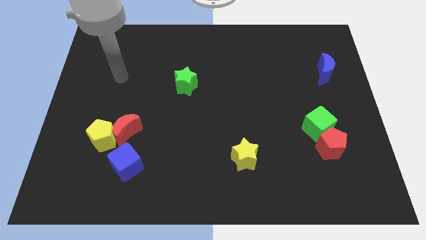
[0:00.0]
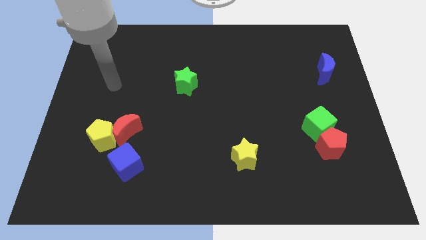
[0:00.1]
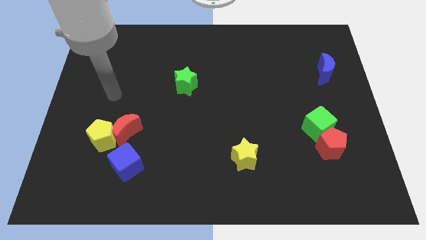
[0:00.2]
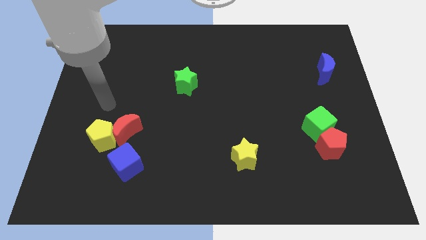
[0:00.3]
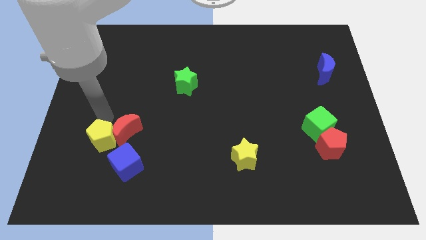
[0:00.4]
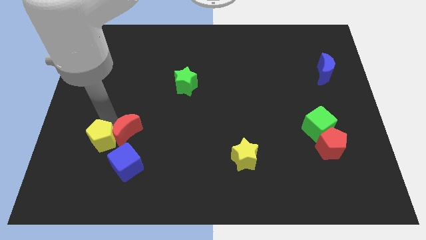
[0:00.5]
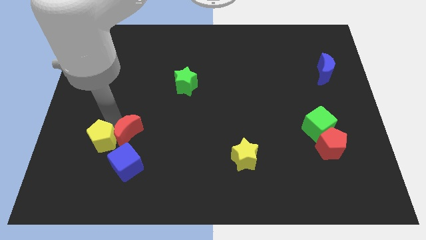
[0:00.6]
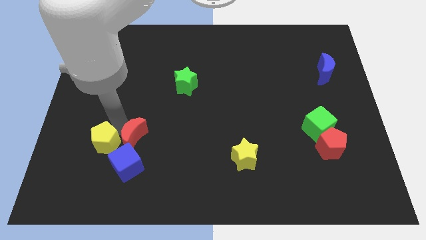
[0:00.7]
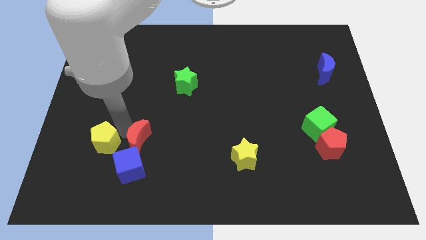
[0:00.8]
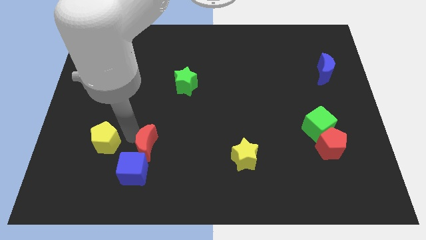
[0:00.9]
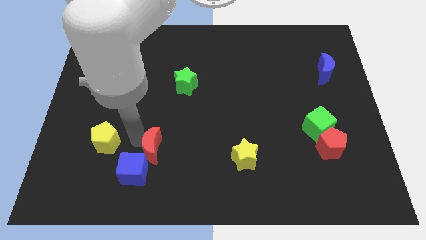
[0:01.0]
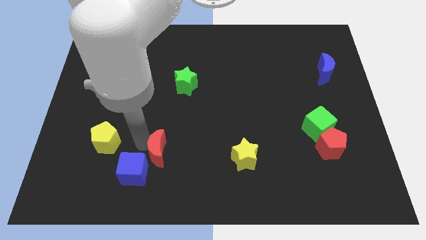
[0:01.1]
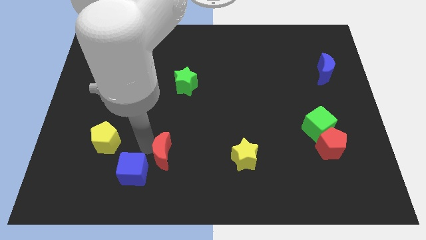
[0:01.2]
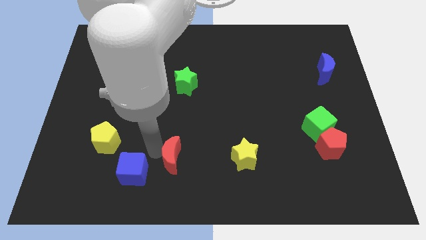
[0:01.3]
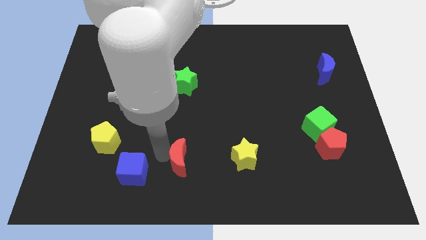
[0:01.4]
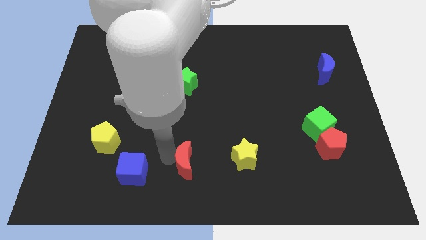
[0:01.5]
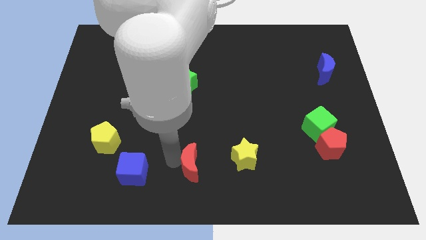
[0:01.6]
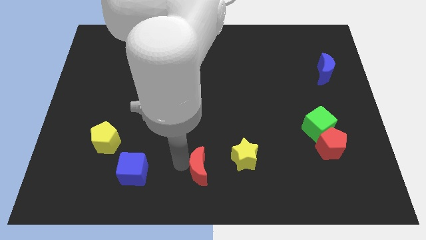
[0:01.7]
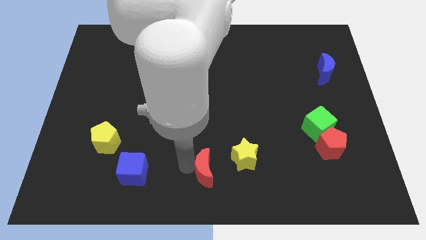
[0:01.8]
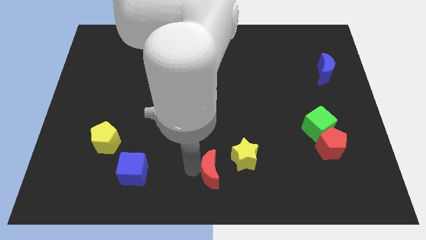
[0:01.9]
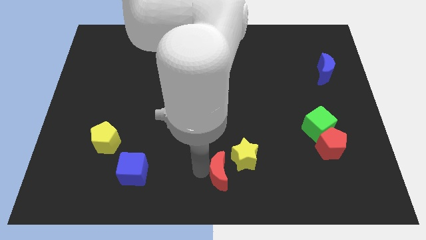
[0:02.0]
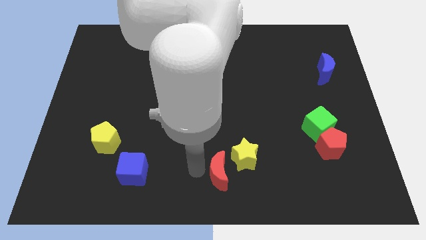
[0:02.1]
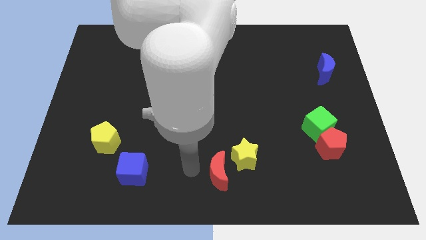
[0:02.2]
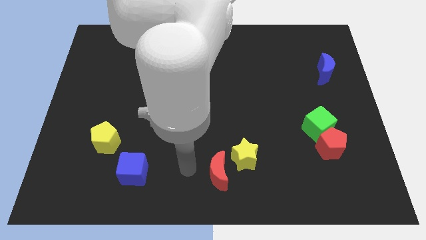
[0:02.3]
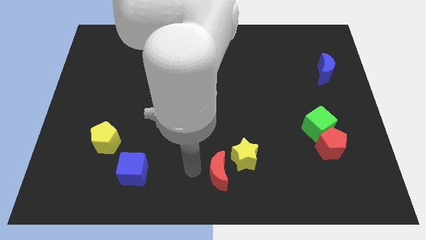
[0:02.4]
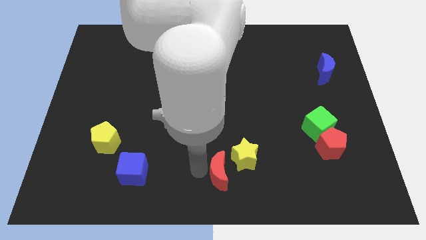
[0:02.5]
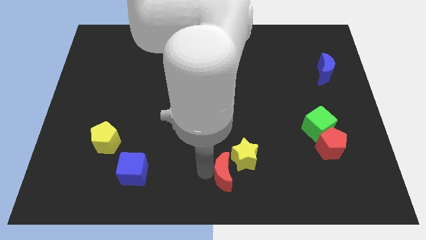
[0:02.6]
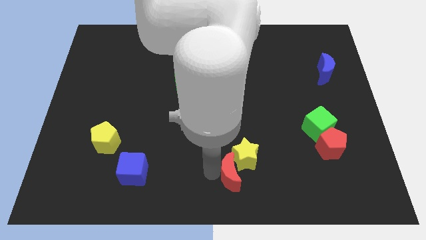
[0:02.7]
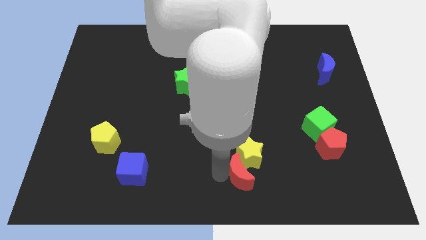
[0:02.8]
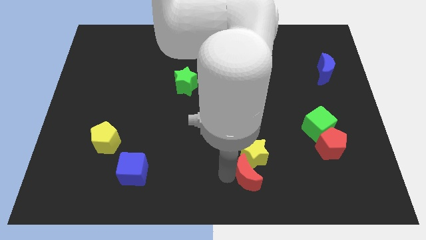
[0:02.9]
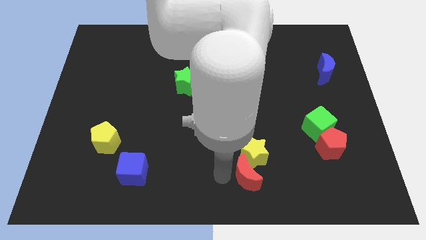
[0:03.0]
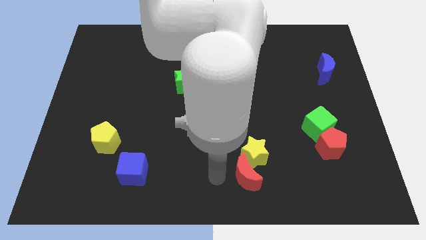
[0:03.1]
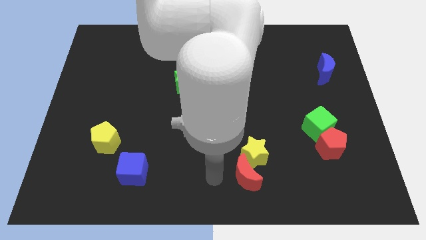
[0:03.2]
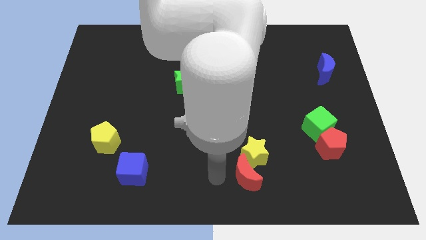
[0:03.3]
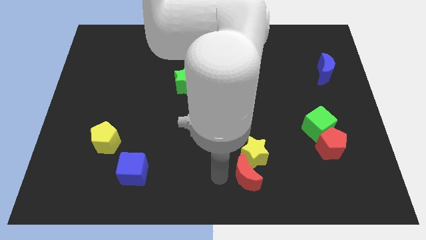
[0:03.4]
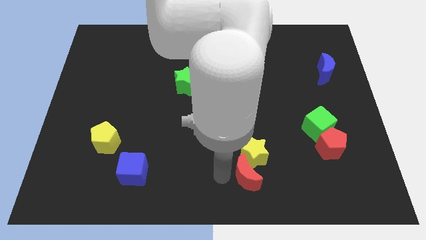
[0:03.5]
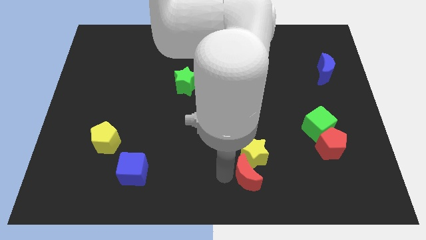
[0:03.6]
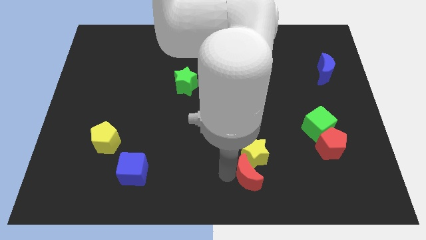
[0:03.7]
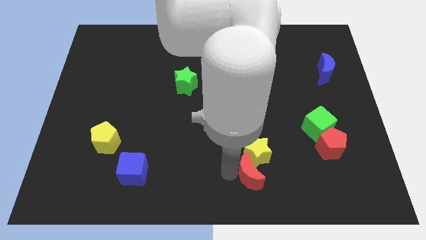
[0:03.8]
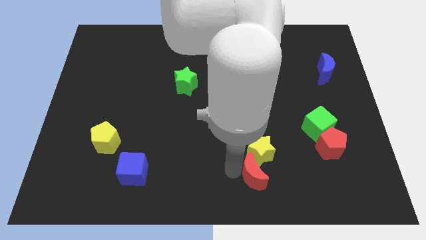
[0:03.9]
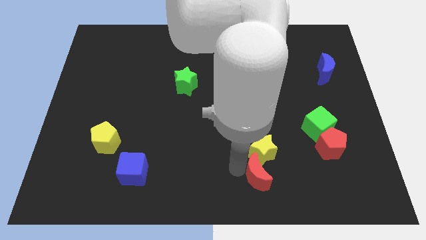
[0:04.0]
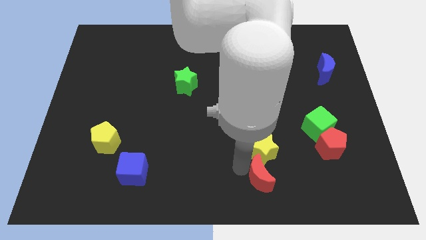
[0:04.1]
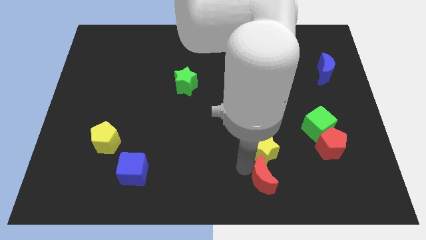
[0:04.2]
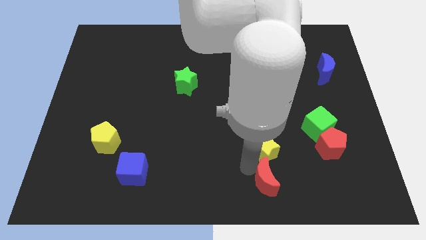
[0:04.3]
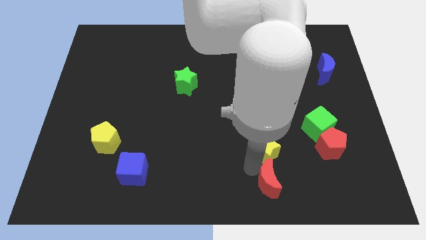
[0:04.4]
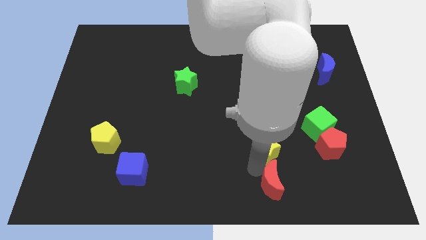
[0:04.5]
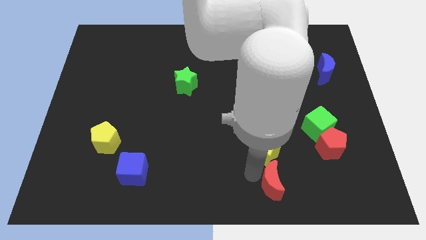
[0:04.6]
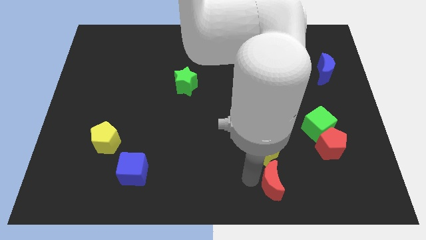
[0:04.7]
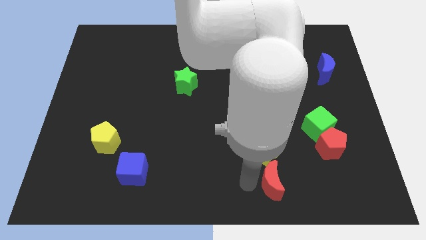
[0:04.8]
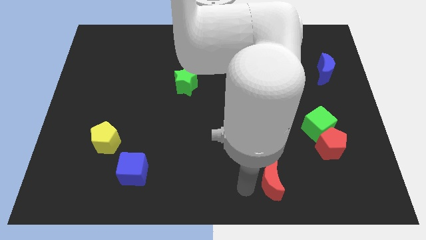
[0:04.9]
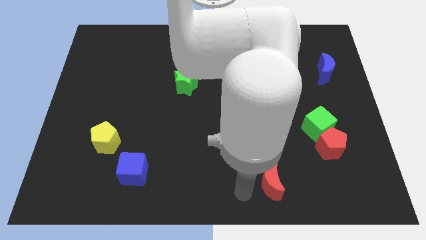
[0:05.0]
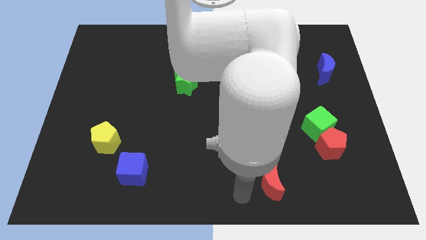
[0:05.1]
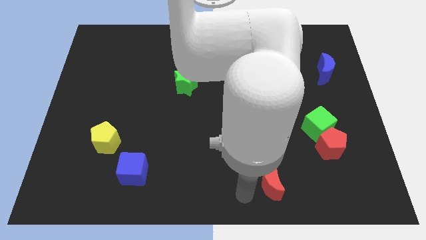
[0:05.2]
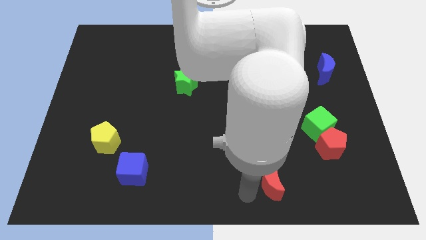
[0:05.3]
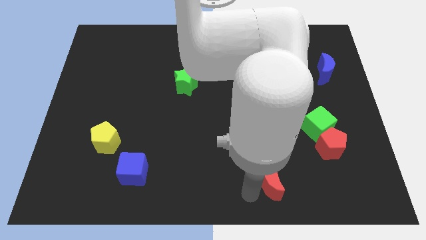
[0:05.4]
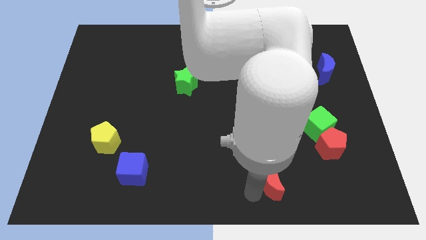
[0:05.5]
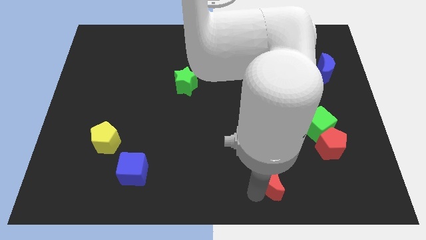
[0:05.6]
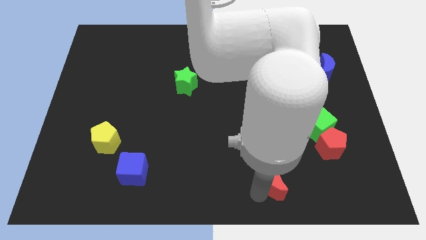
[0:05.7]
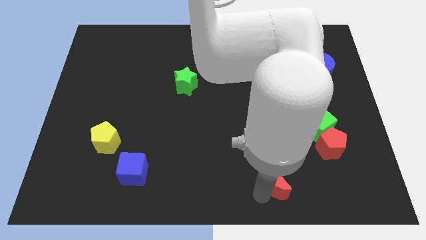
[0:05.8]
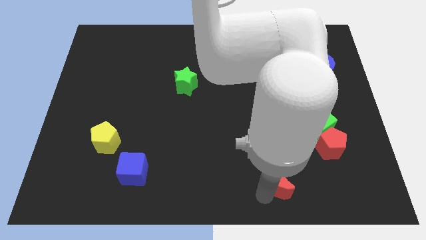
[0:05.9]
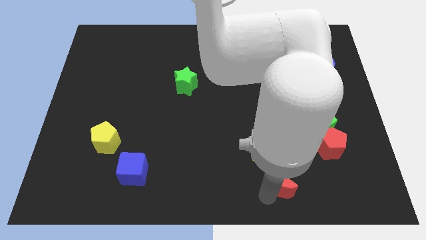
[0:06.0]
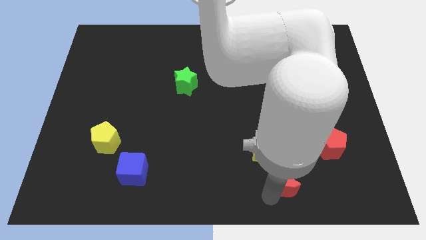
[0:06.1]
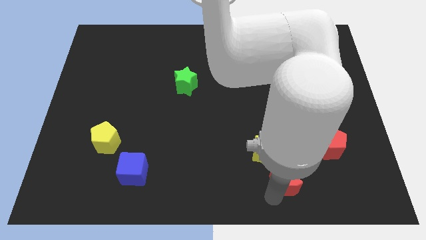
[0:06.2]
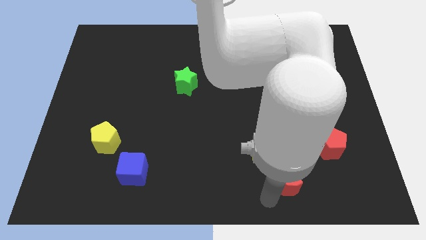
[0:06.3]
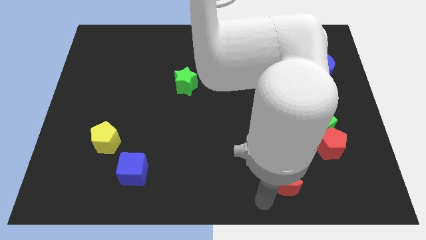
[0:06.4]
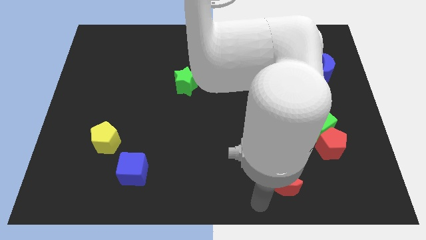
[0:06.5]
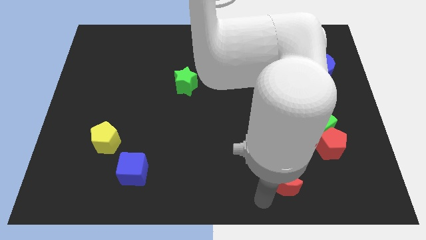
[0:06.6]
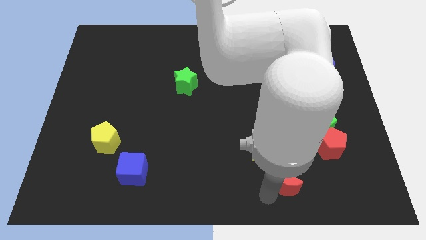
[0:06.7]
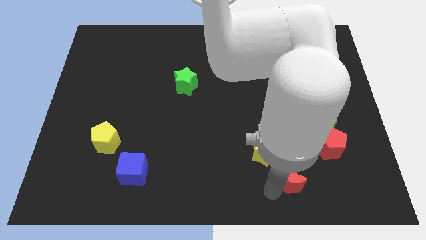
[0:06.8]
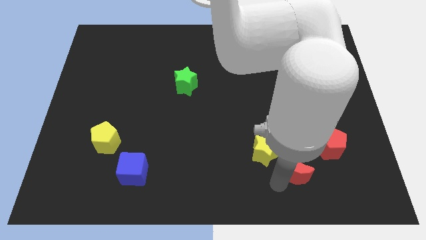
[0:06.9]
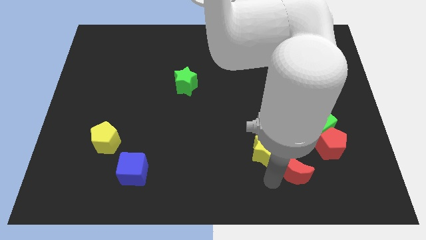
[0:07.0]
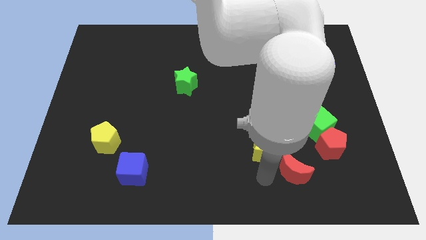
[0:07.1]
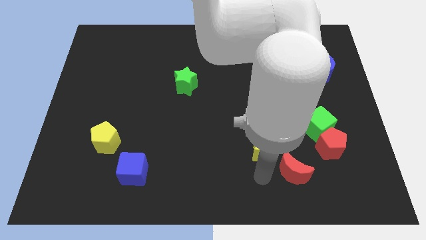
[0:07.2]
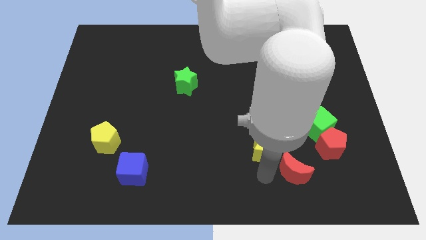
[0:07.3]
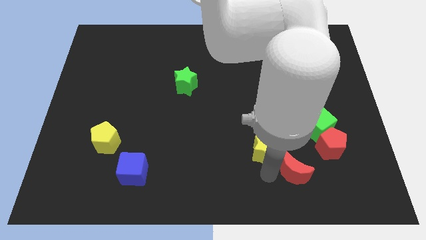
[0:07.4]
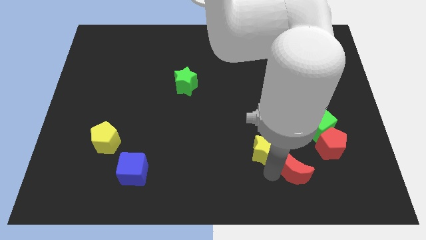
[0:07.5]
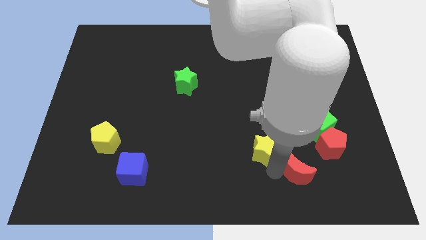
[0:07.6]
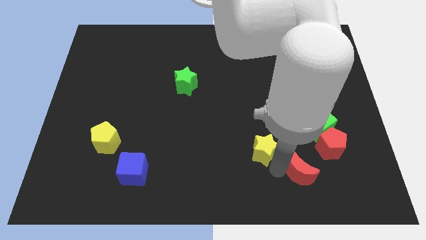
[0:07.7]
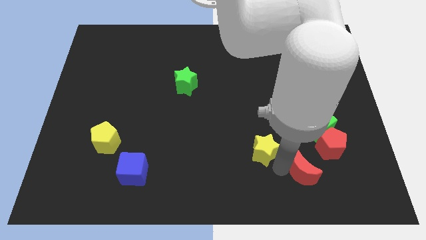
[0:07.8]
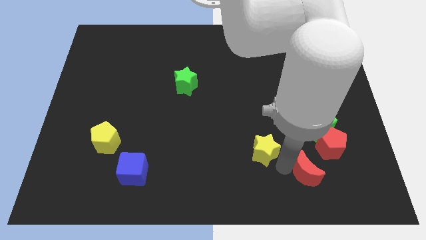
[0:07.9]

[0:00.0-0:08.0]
slide the red moon to the bottom side of the green cube

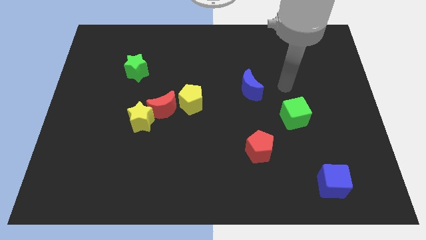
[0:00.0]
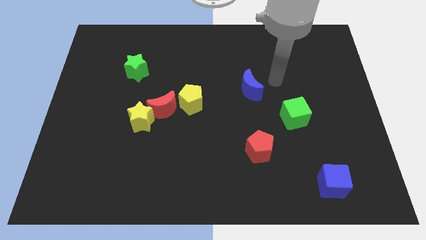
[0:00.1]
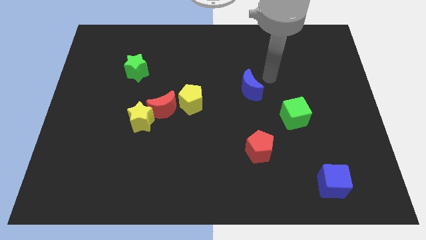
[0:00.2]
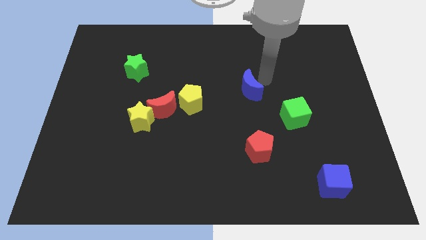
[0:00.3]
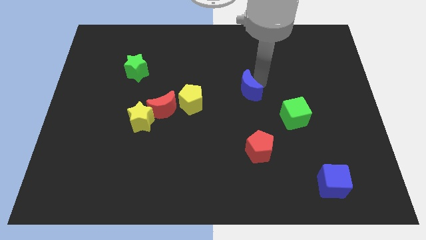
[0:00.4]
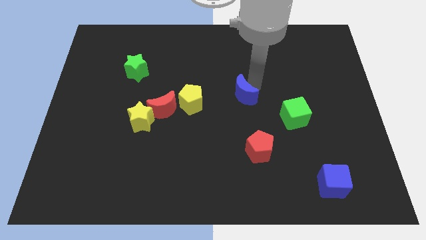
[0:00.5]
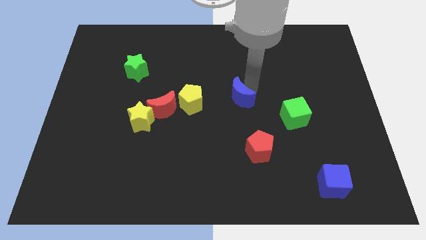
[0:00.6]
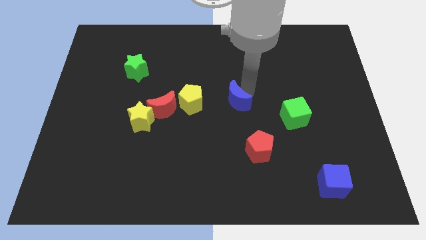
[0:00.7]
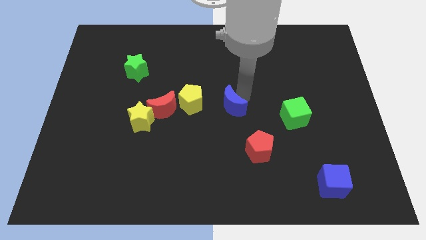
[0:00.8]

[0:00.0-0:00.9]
slide the blue moon to the right of the red moon
